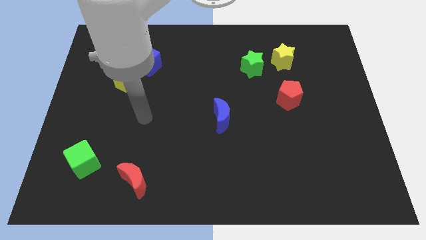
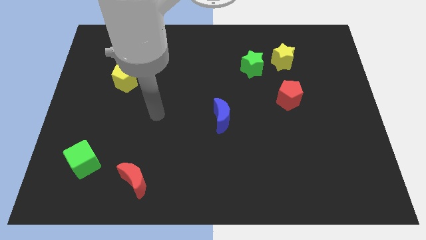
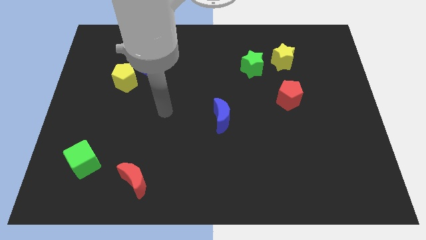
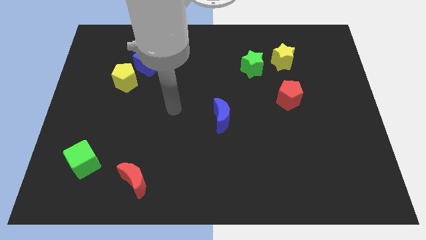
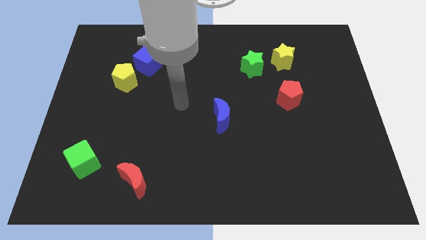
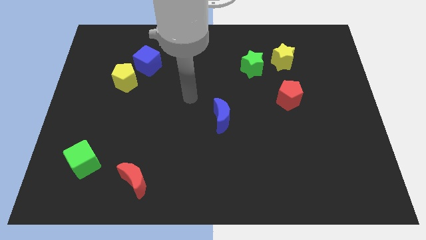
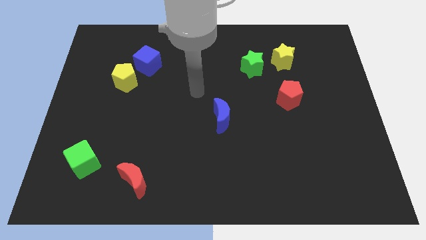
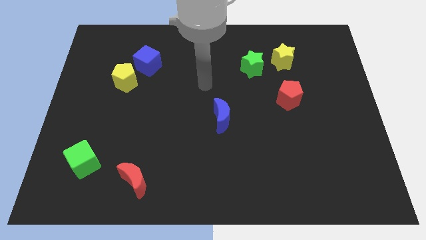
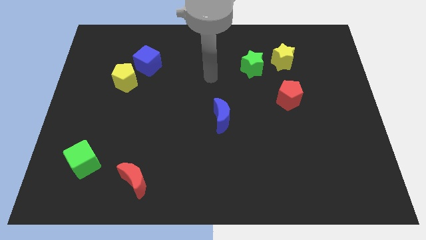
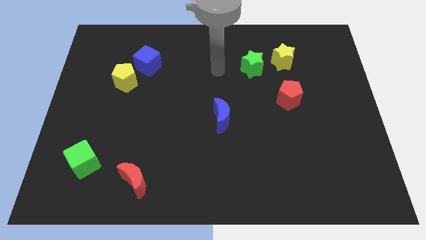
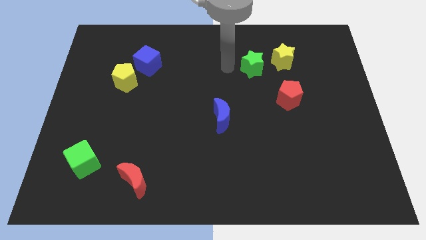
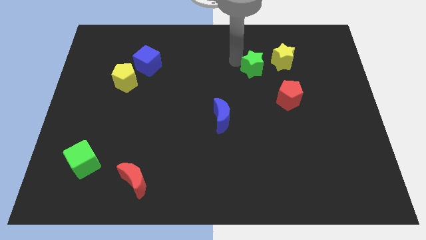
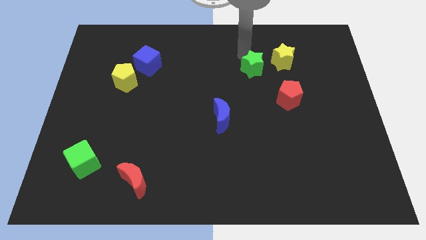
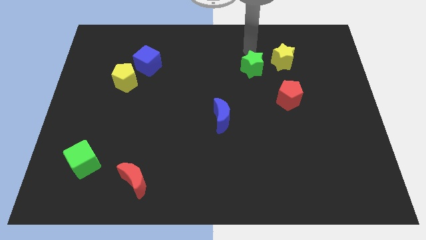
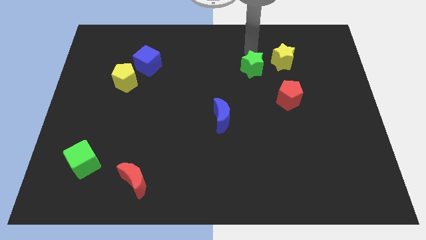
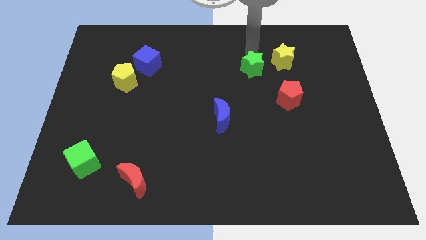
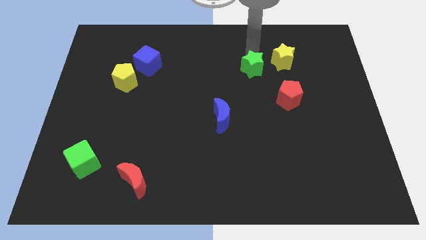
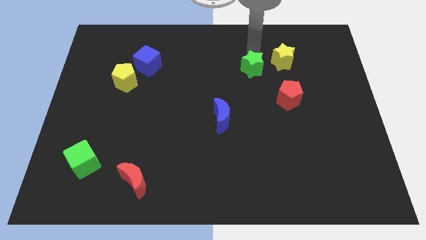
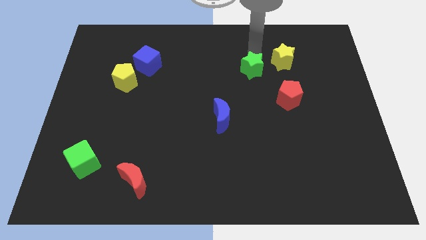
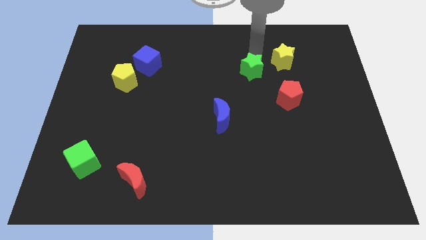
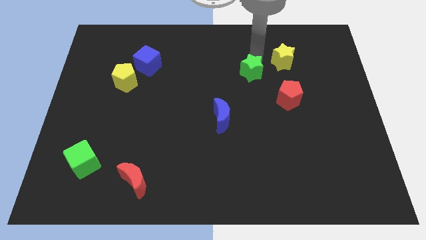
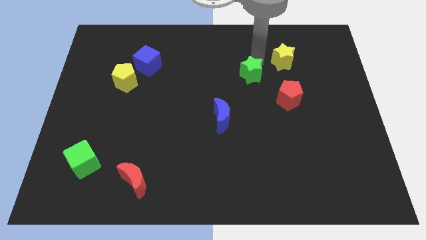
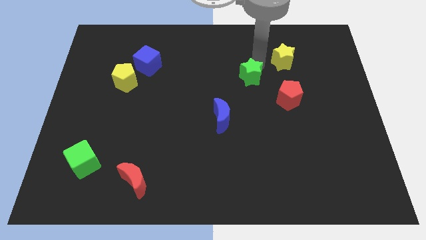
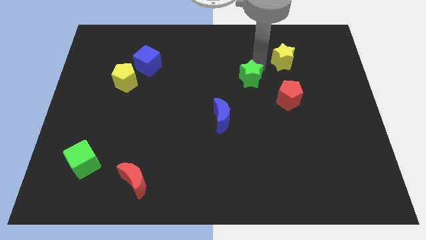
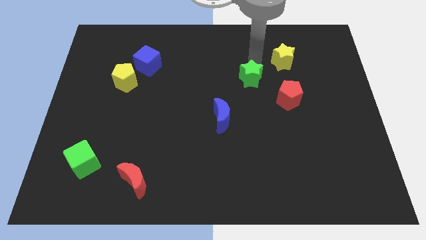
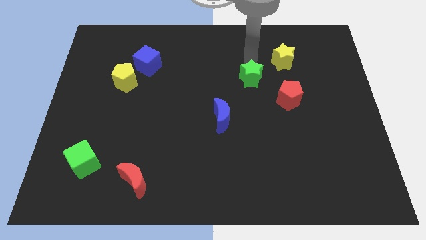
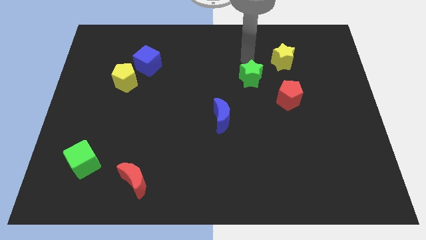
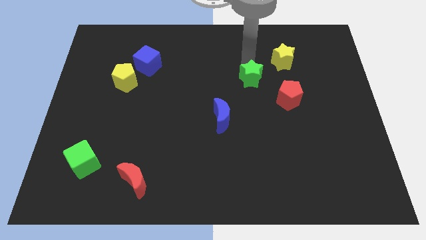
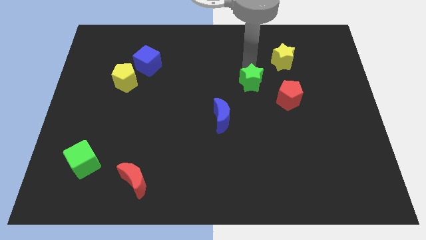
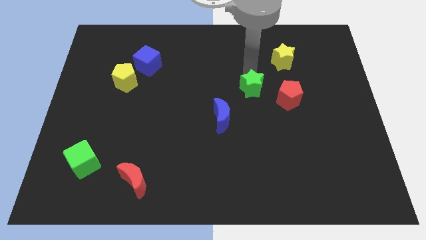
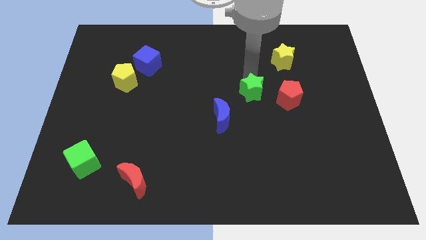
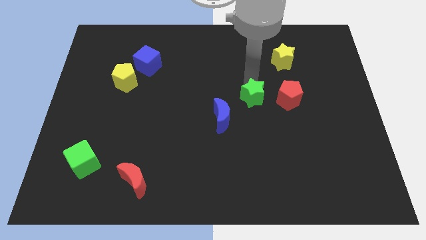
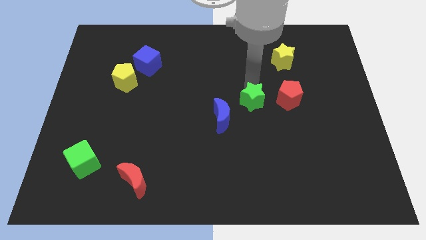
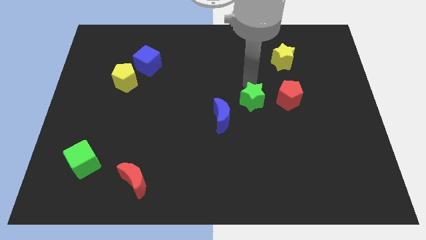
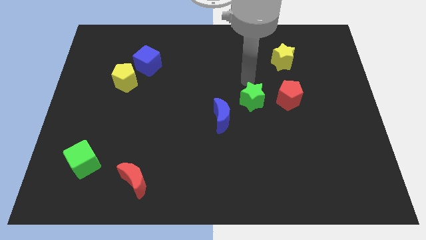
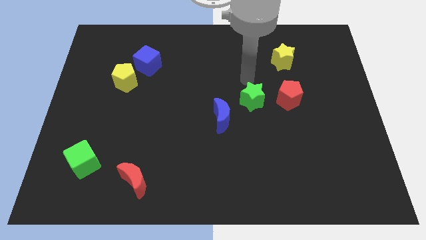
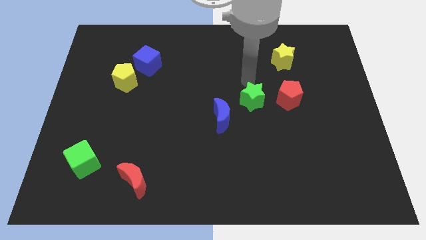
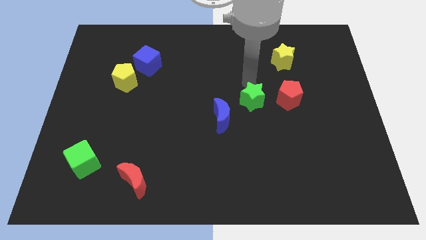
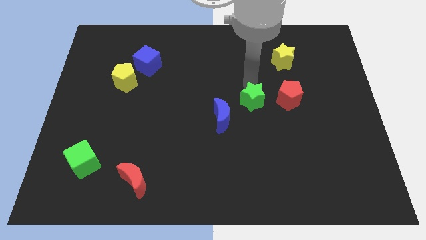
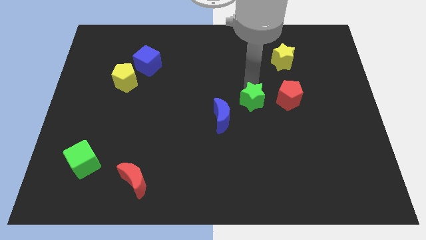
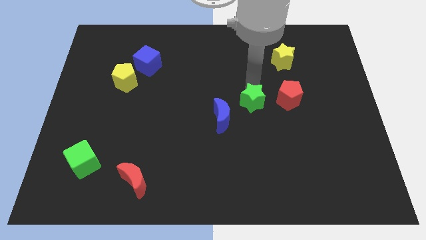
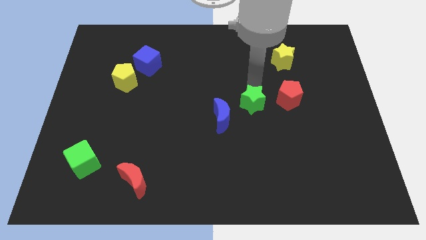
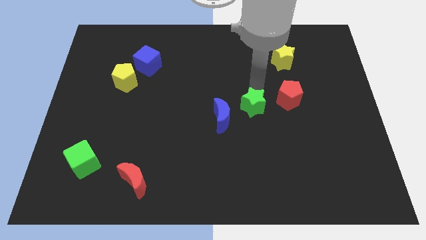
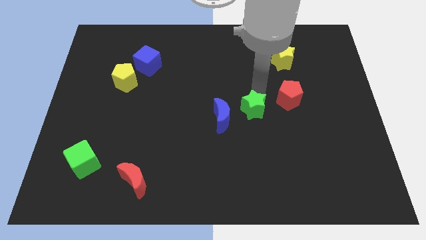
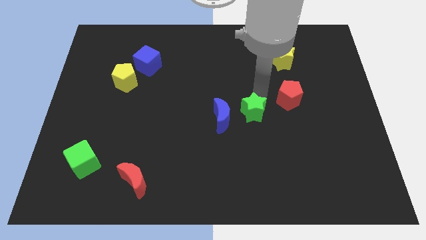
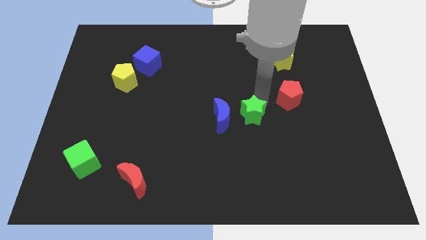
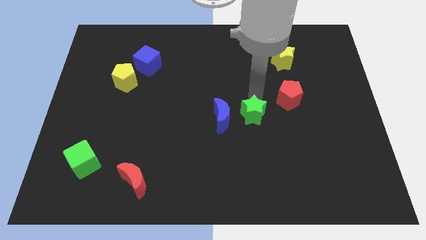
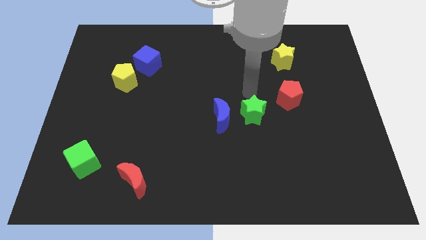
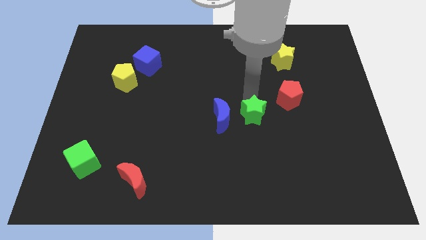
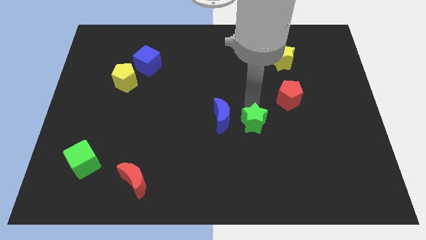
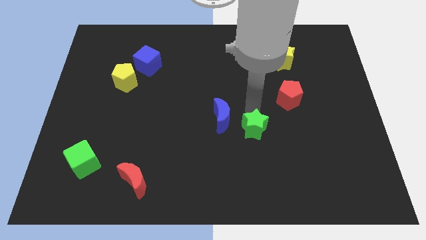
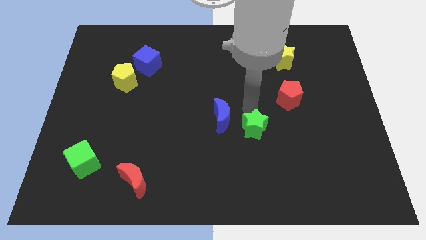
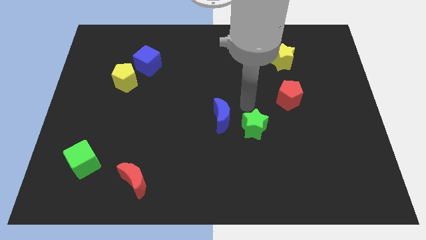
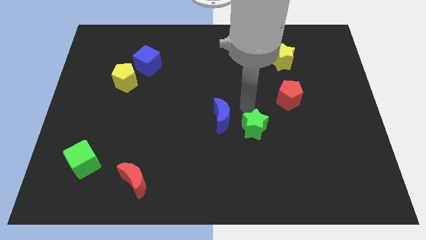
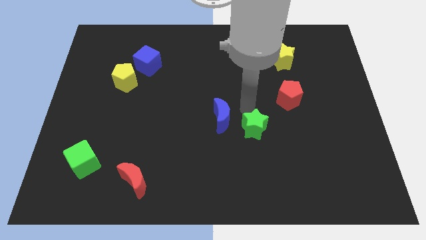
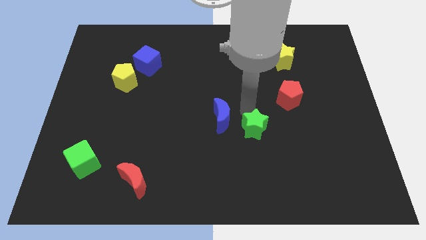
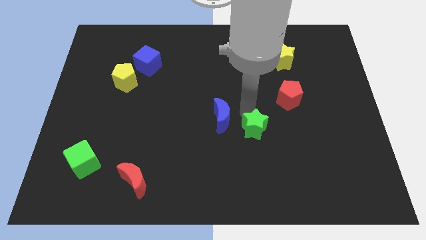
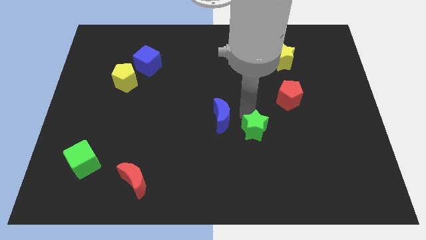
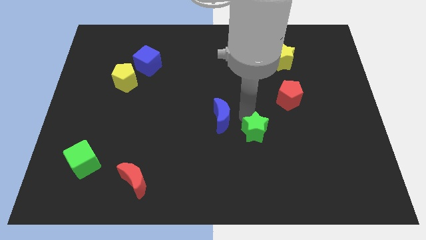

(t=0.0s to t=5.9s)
push the green star down

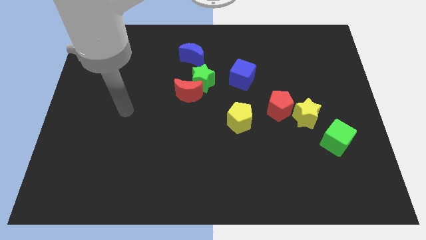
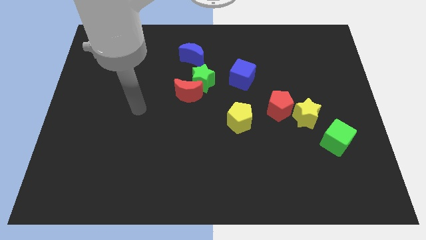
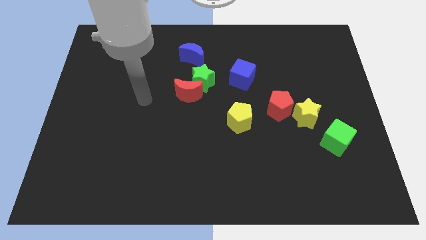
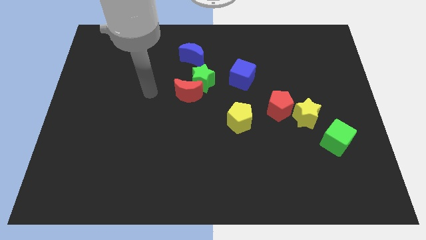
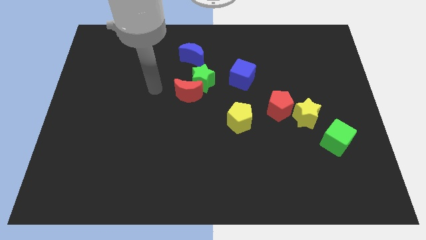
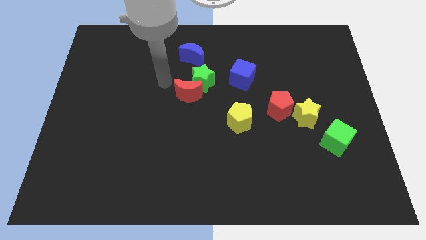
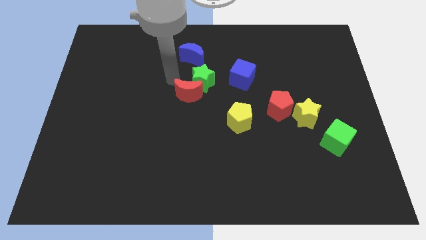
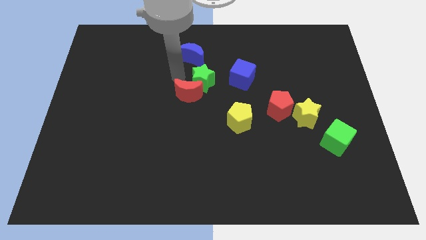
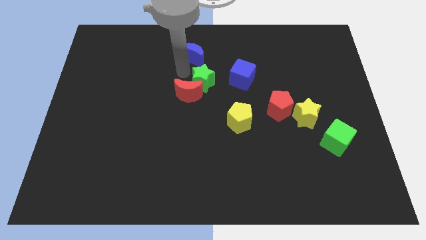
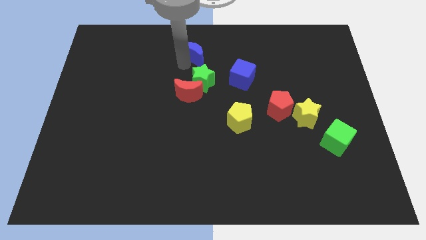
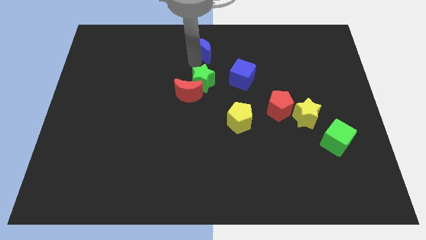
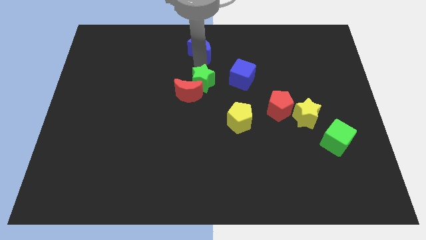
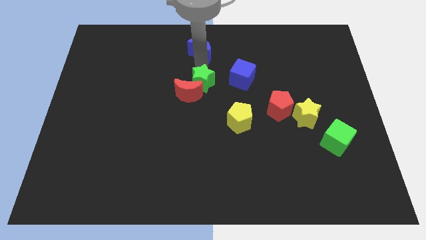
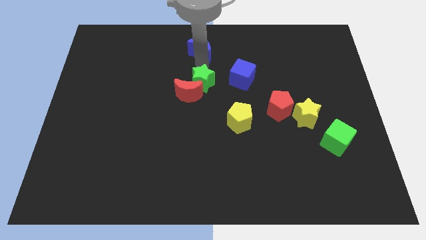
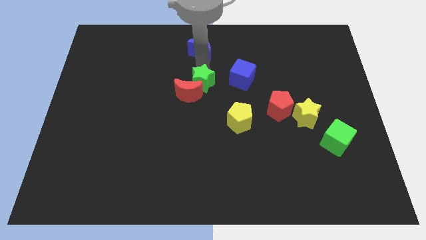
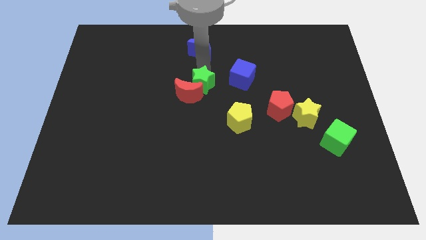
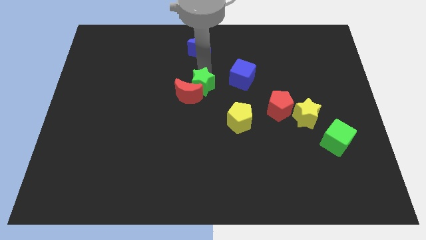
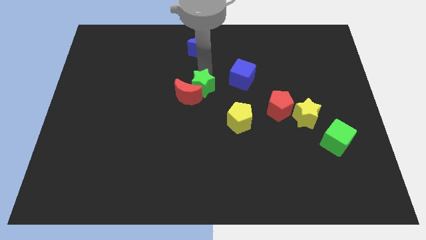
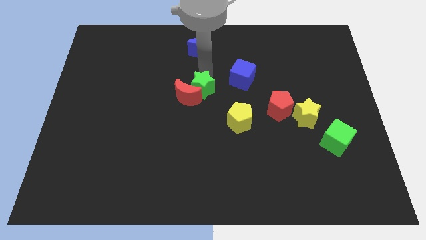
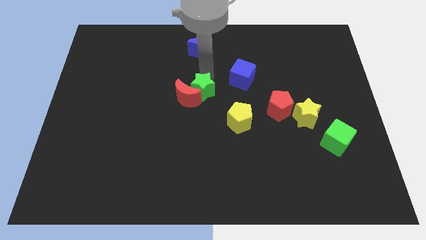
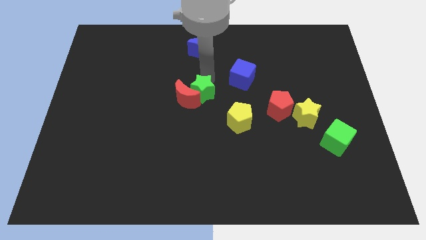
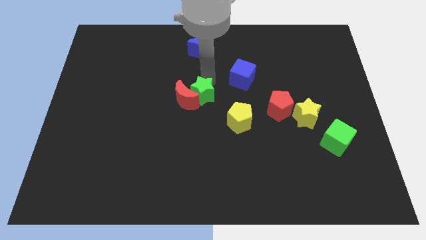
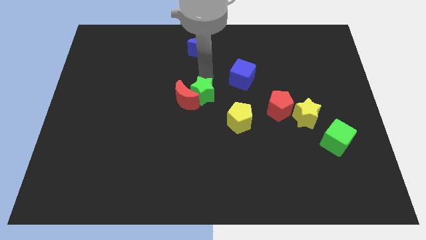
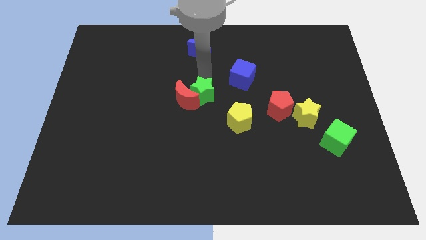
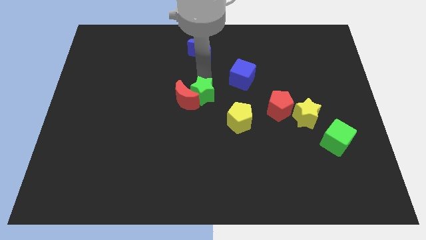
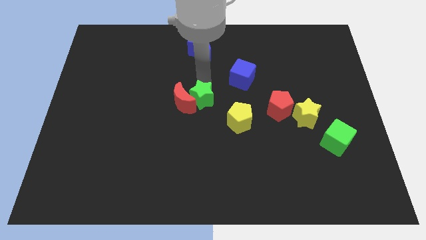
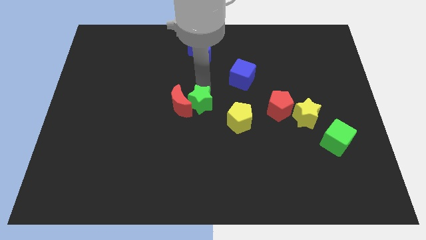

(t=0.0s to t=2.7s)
slide the green star downwards slightly
